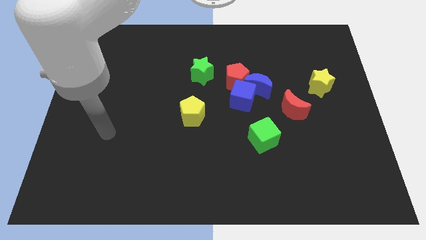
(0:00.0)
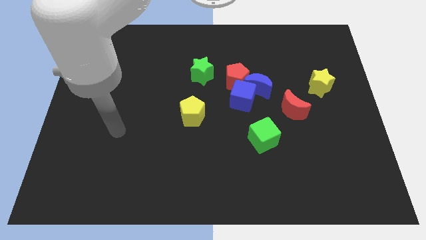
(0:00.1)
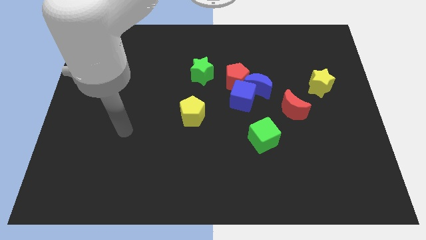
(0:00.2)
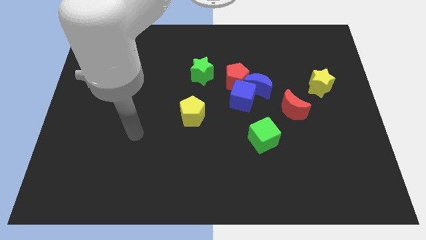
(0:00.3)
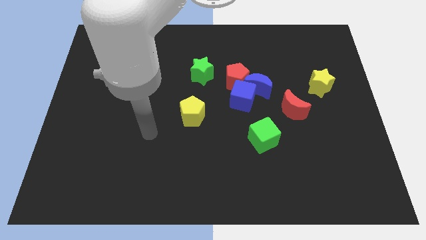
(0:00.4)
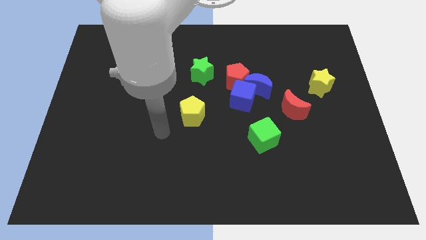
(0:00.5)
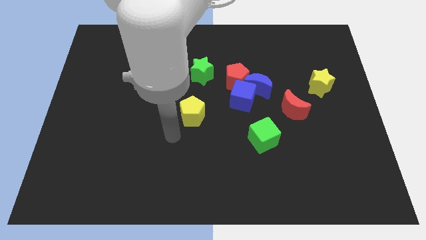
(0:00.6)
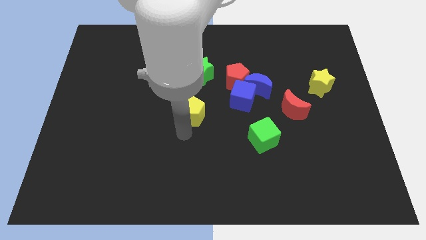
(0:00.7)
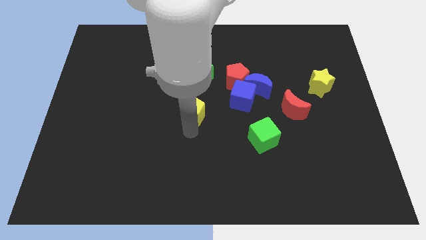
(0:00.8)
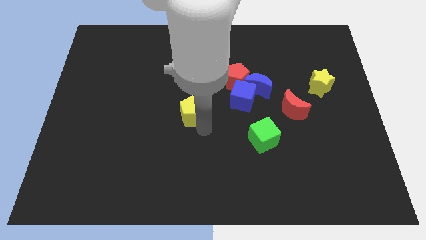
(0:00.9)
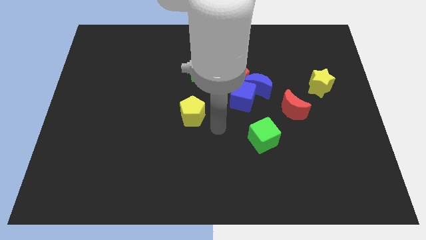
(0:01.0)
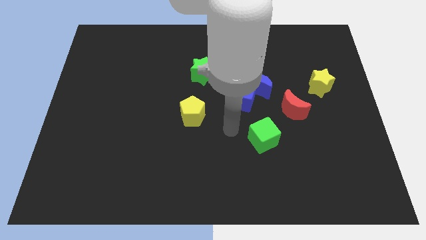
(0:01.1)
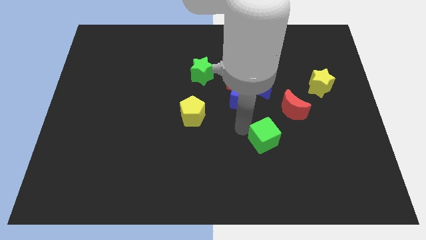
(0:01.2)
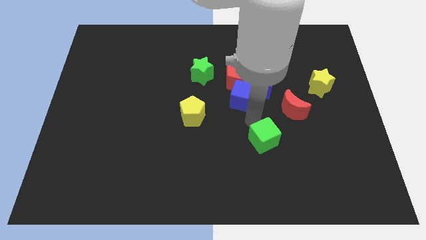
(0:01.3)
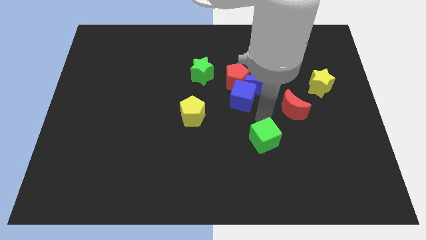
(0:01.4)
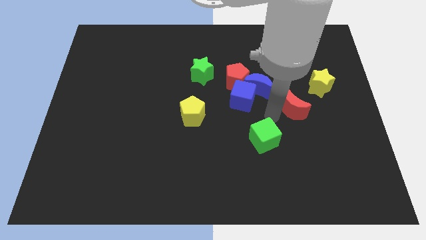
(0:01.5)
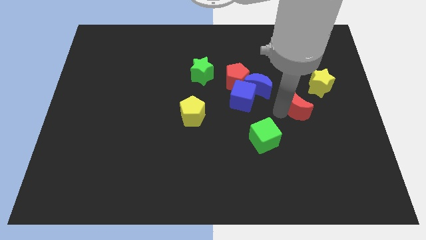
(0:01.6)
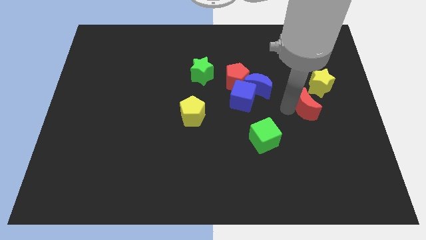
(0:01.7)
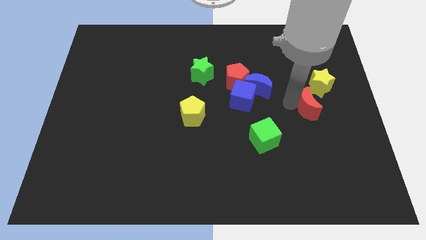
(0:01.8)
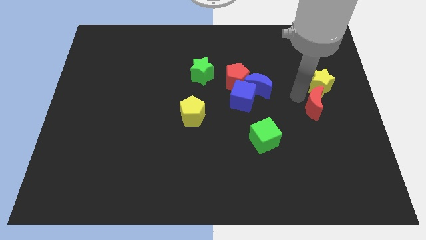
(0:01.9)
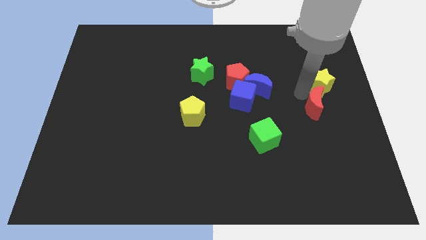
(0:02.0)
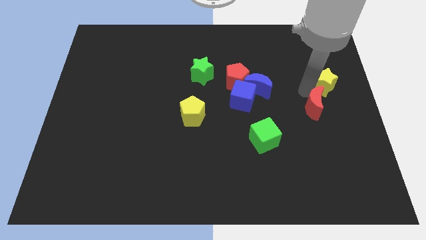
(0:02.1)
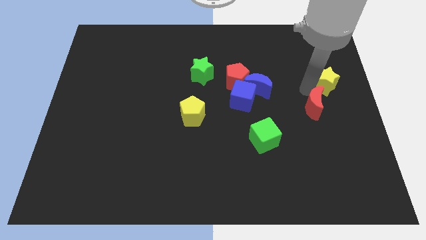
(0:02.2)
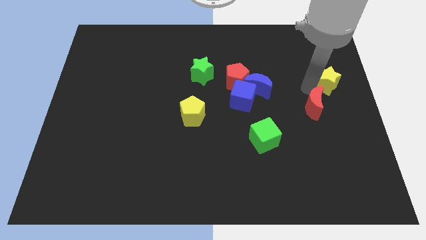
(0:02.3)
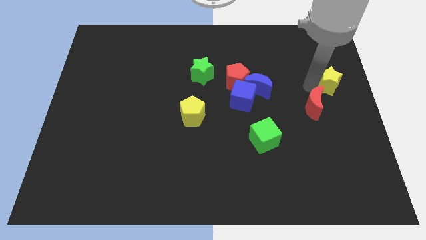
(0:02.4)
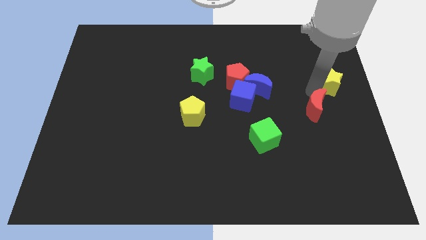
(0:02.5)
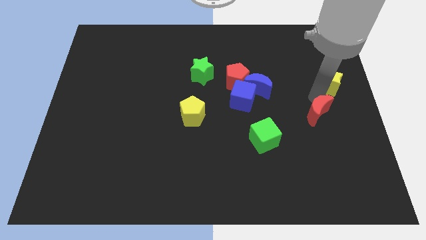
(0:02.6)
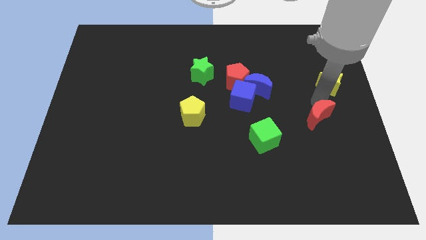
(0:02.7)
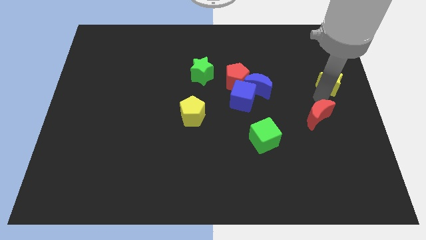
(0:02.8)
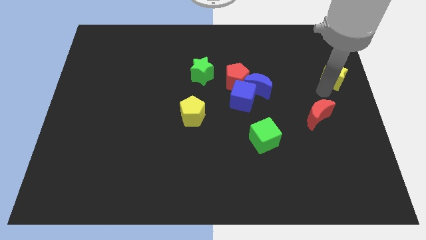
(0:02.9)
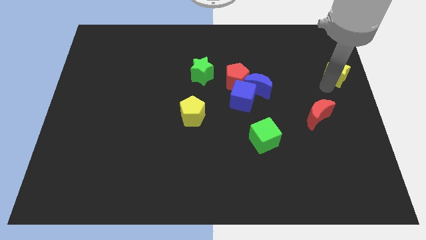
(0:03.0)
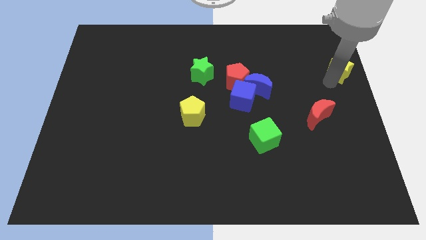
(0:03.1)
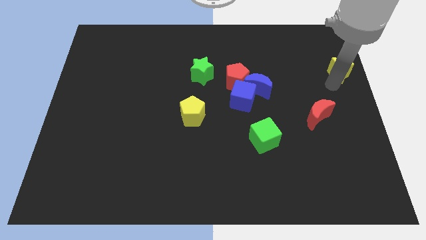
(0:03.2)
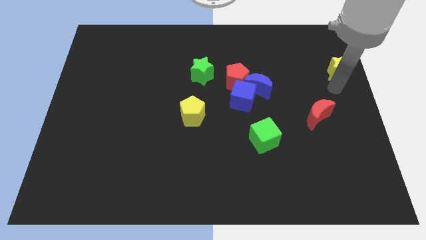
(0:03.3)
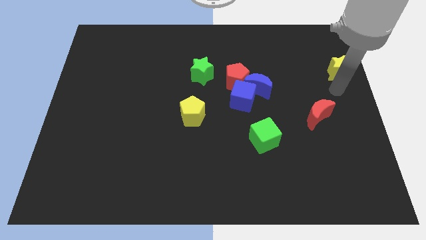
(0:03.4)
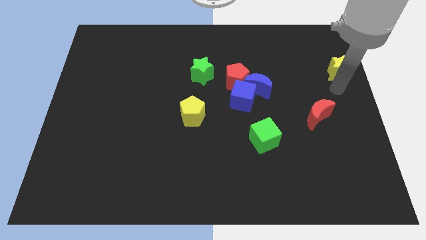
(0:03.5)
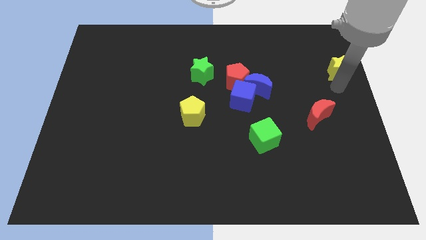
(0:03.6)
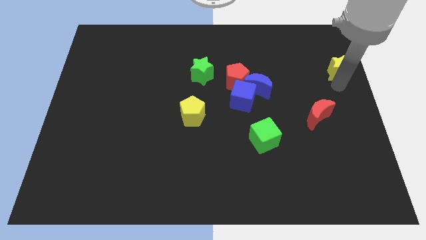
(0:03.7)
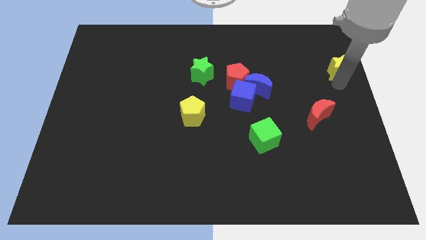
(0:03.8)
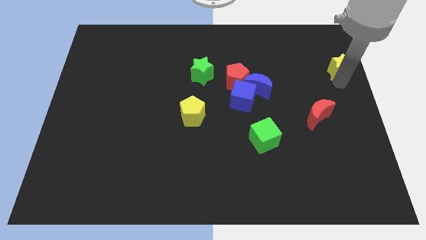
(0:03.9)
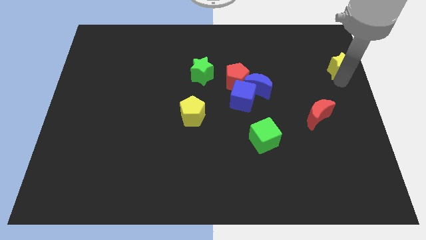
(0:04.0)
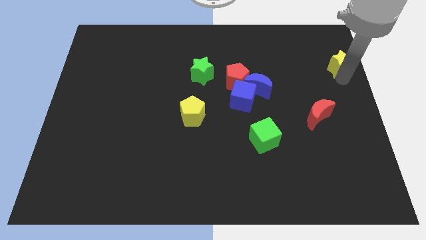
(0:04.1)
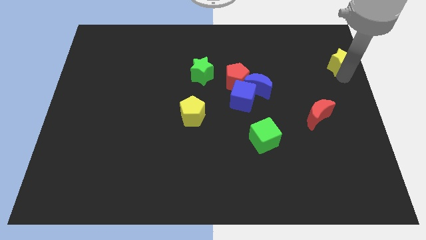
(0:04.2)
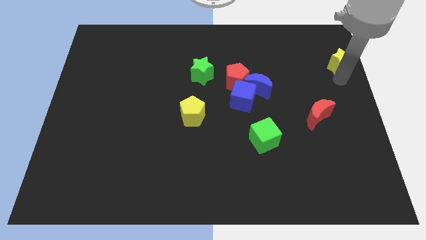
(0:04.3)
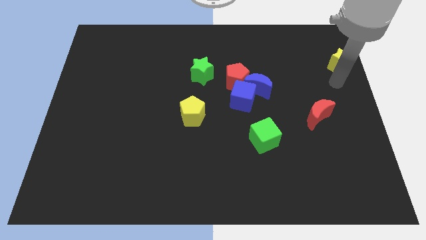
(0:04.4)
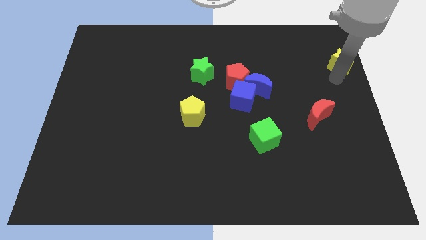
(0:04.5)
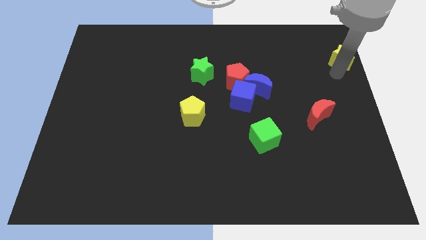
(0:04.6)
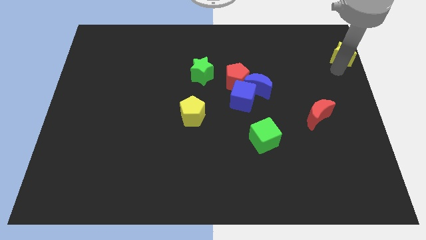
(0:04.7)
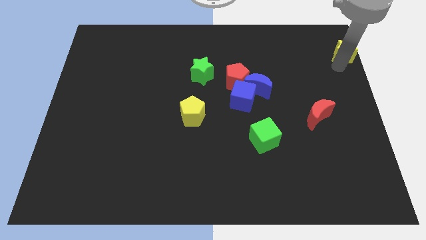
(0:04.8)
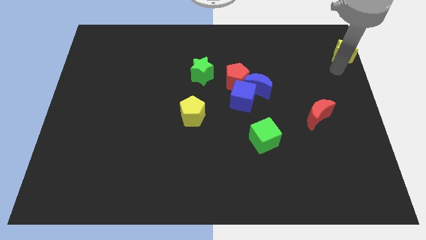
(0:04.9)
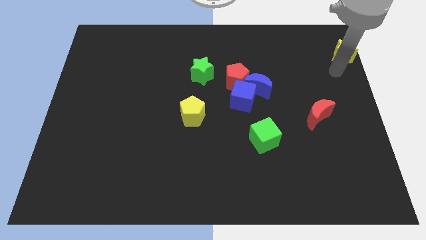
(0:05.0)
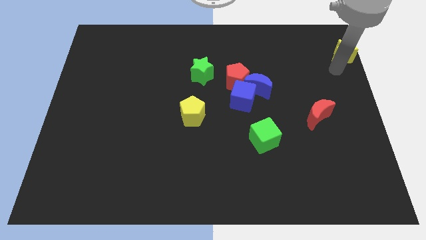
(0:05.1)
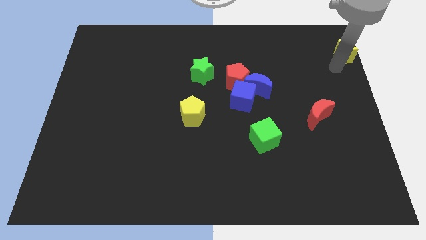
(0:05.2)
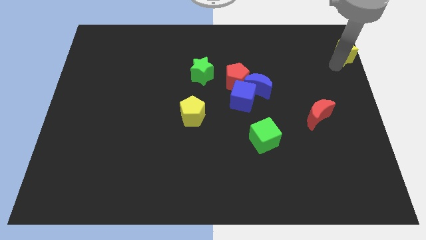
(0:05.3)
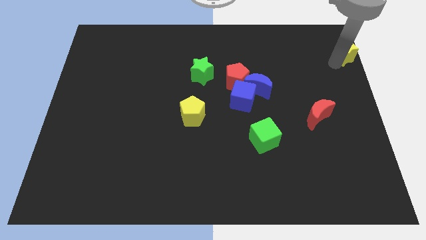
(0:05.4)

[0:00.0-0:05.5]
move the yellow star to the top right of the board

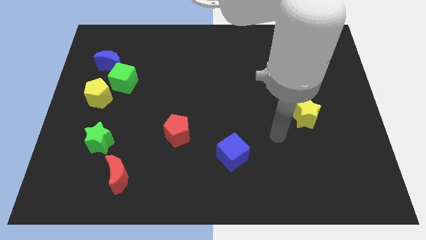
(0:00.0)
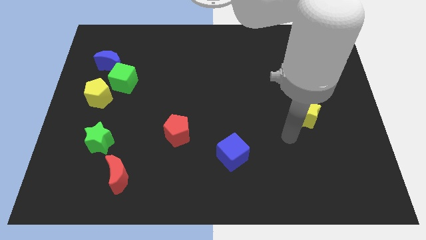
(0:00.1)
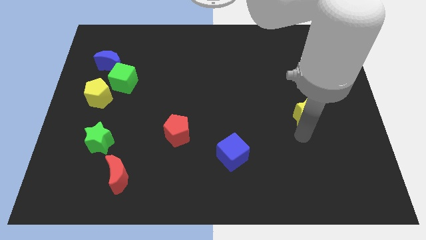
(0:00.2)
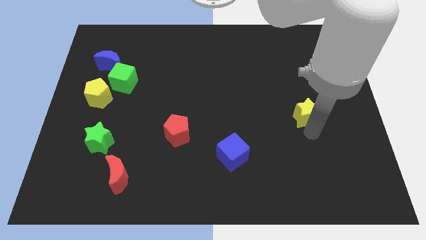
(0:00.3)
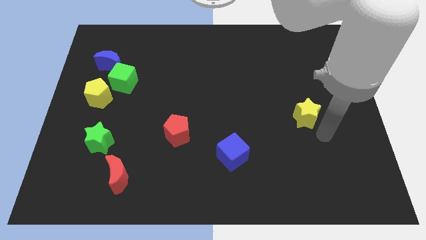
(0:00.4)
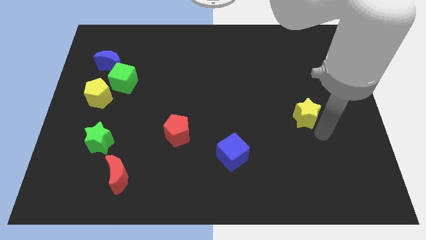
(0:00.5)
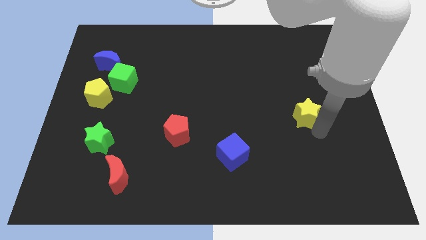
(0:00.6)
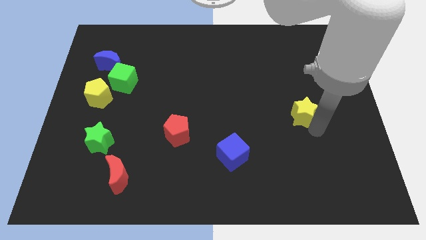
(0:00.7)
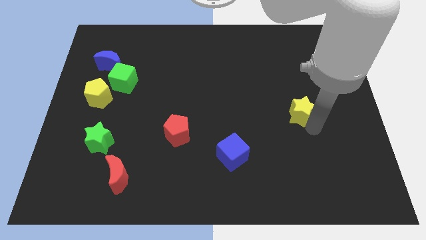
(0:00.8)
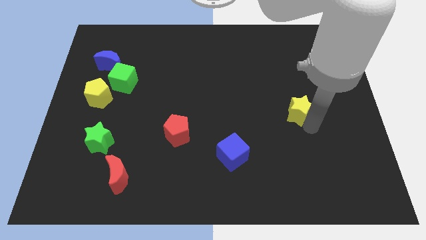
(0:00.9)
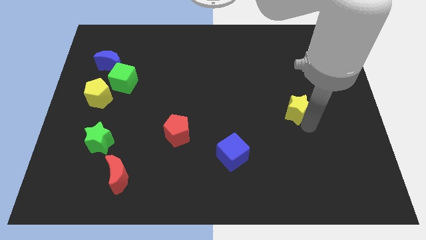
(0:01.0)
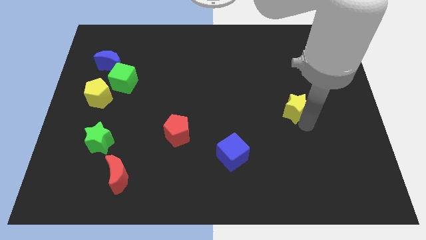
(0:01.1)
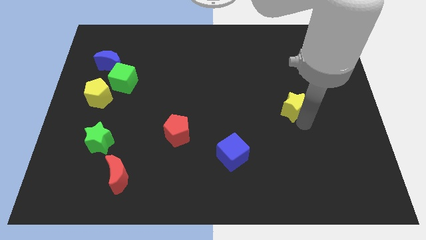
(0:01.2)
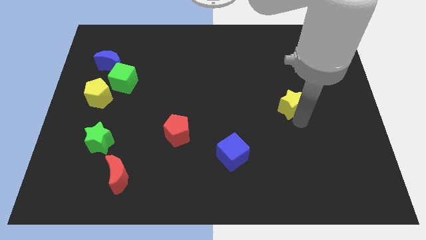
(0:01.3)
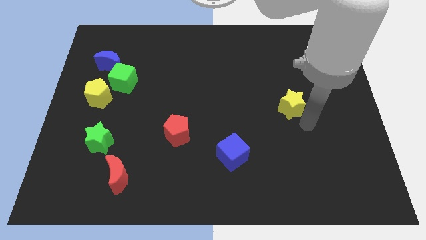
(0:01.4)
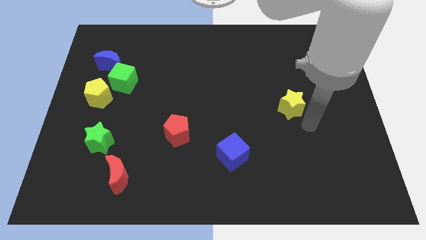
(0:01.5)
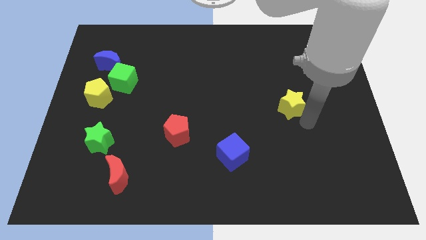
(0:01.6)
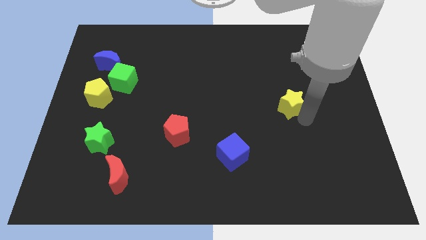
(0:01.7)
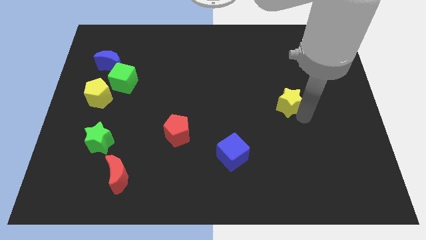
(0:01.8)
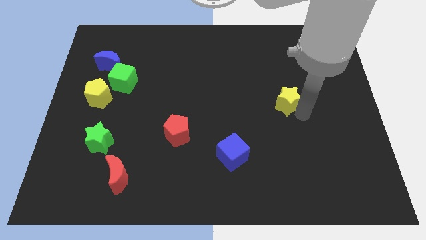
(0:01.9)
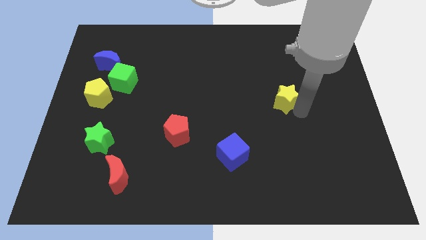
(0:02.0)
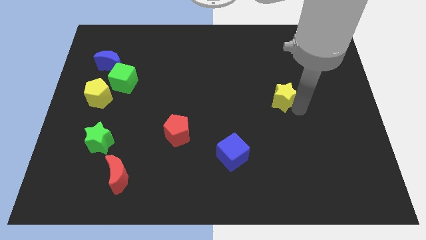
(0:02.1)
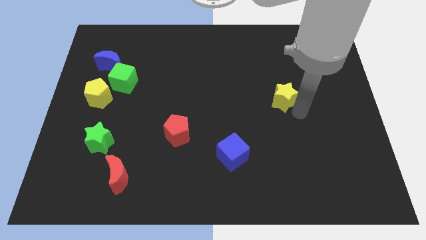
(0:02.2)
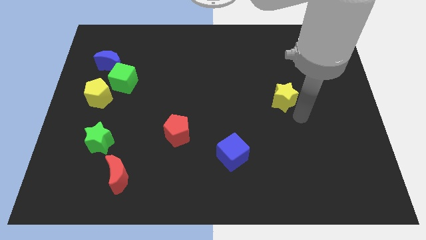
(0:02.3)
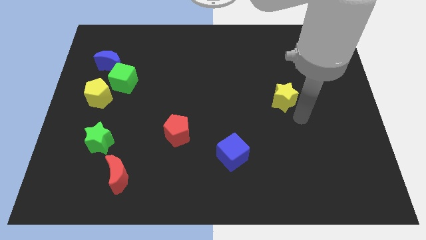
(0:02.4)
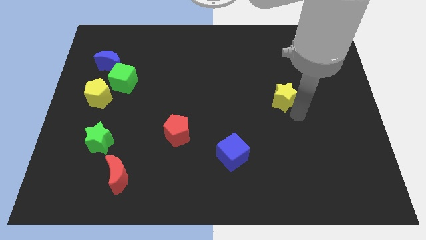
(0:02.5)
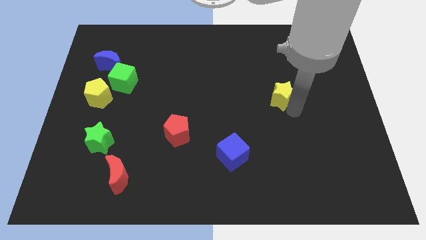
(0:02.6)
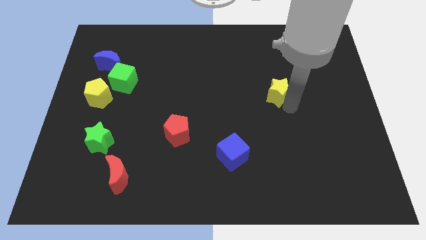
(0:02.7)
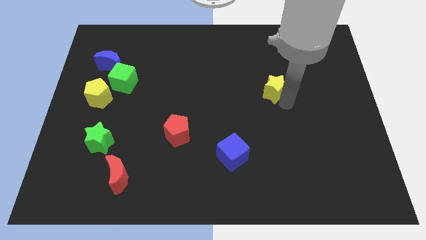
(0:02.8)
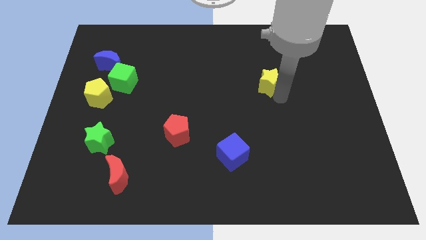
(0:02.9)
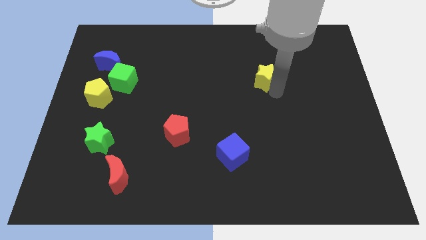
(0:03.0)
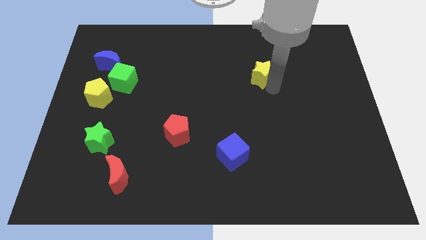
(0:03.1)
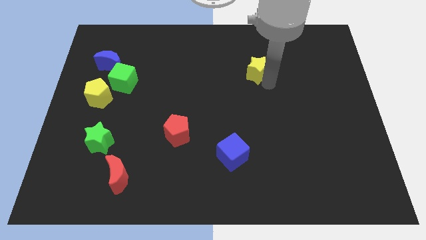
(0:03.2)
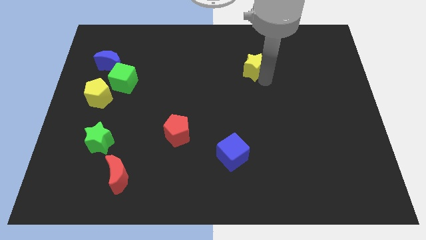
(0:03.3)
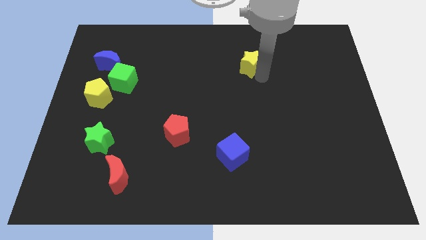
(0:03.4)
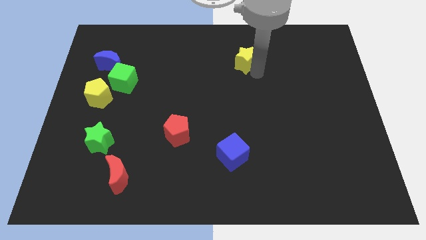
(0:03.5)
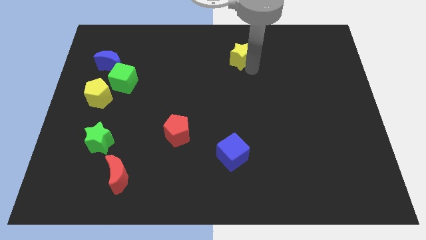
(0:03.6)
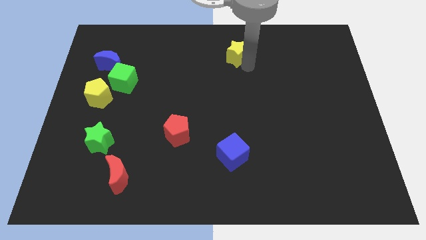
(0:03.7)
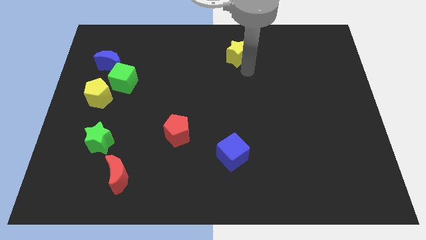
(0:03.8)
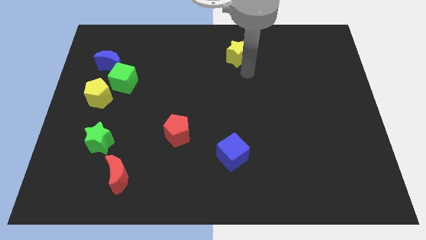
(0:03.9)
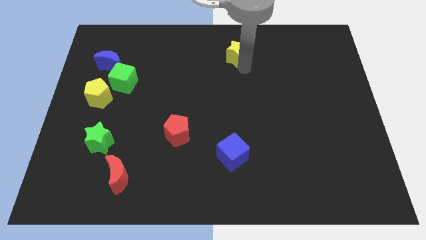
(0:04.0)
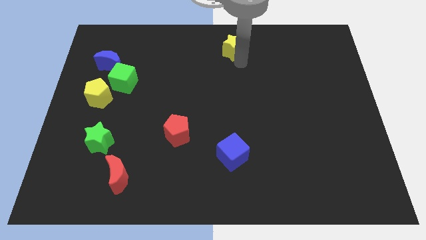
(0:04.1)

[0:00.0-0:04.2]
slide the yellow star to the top
